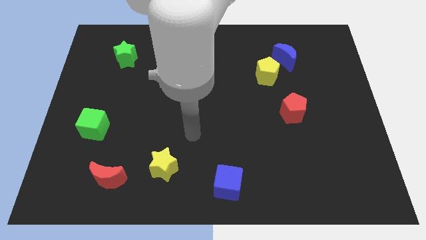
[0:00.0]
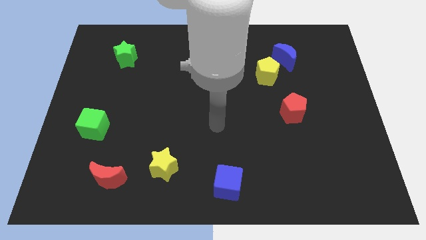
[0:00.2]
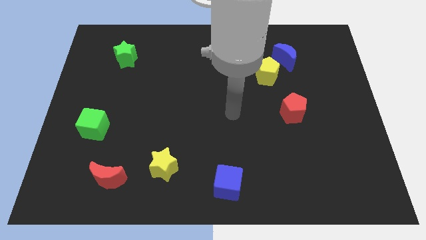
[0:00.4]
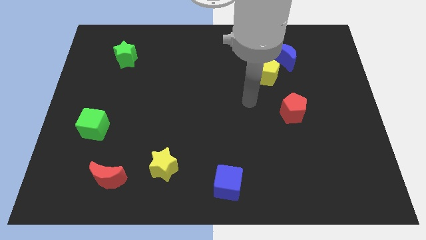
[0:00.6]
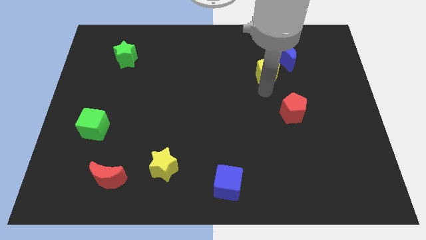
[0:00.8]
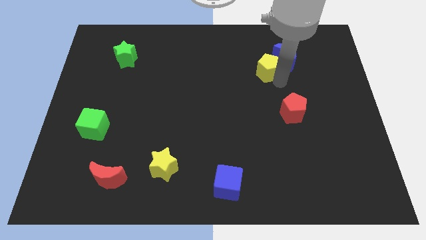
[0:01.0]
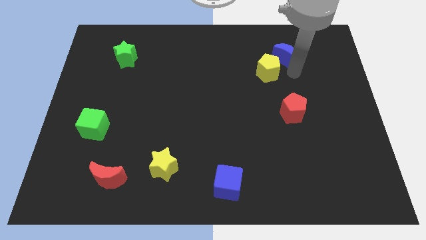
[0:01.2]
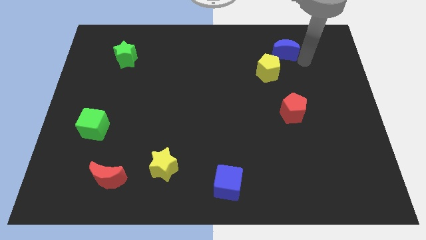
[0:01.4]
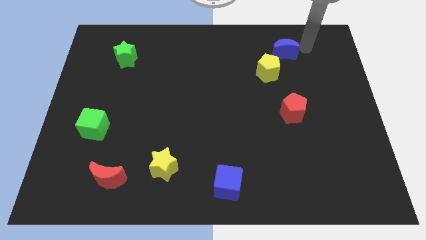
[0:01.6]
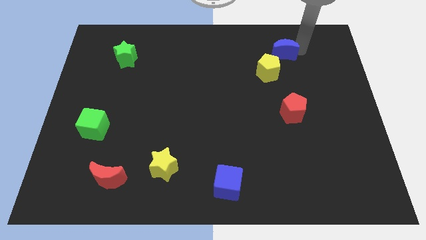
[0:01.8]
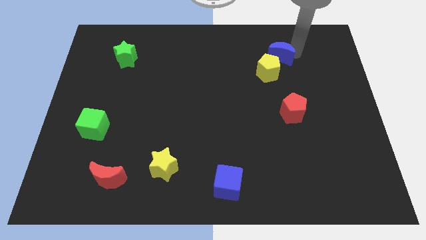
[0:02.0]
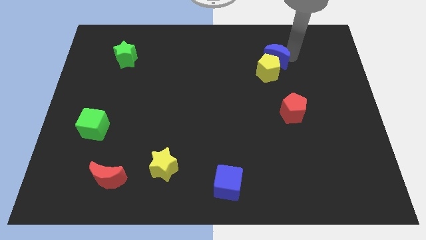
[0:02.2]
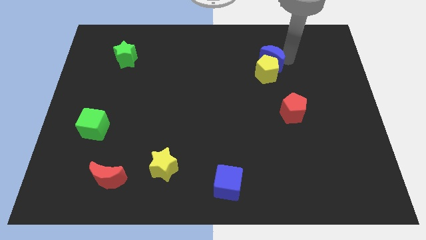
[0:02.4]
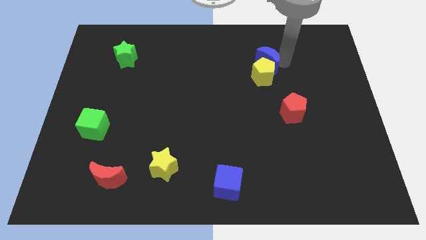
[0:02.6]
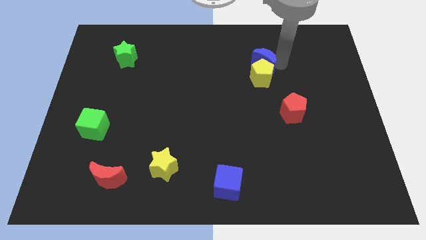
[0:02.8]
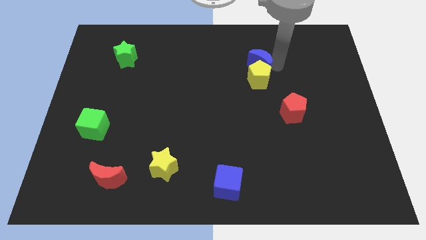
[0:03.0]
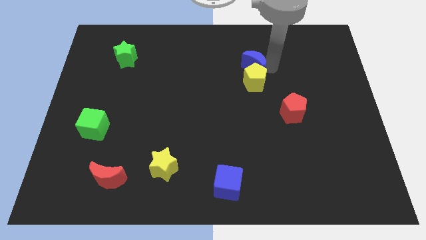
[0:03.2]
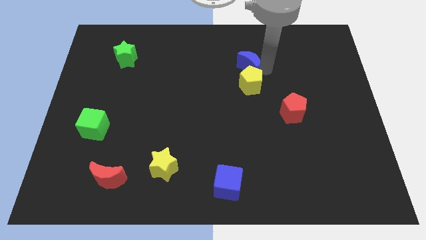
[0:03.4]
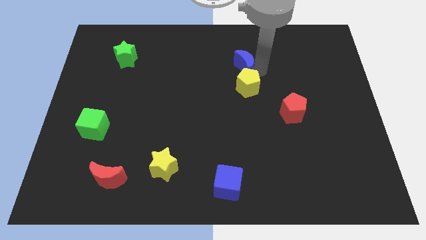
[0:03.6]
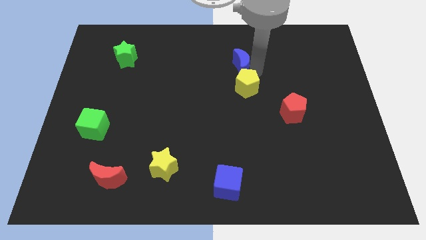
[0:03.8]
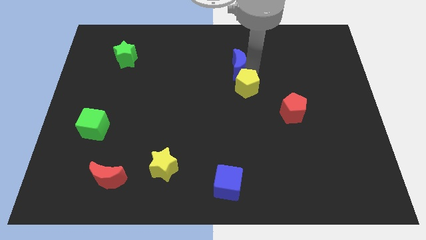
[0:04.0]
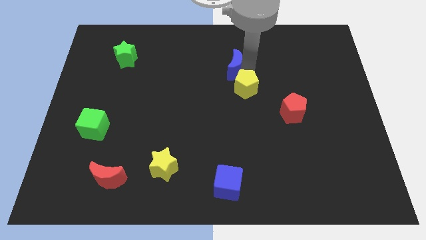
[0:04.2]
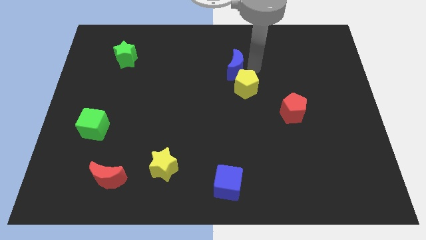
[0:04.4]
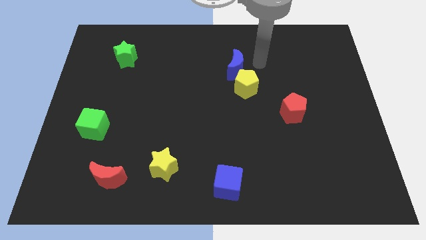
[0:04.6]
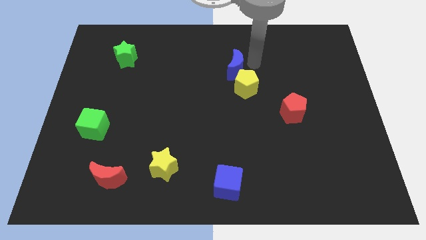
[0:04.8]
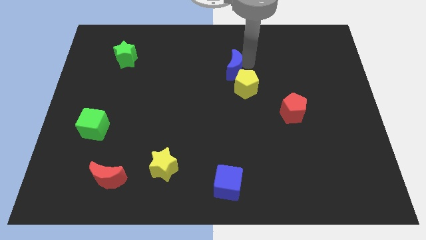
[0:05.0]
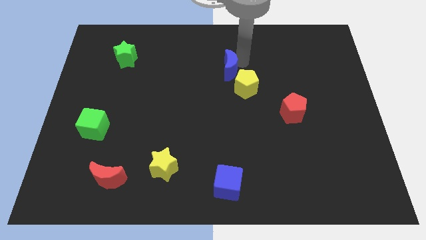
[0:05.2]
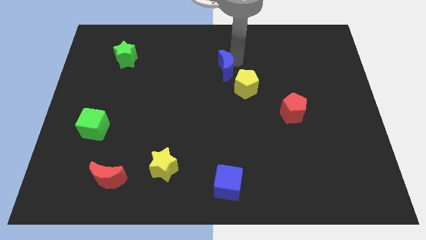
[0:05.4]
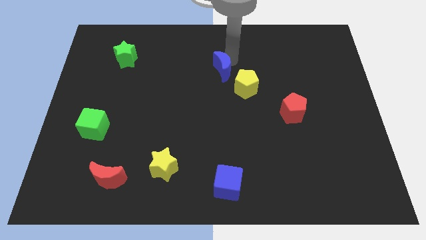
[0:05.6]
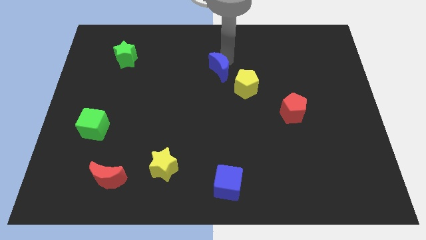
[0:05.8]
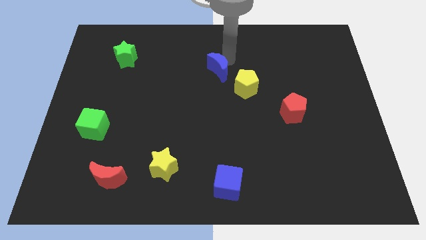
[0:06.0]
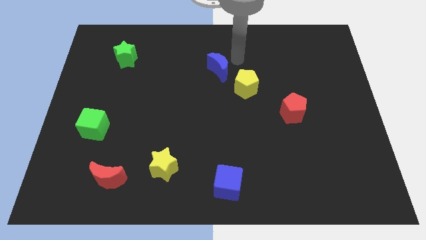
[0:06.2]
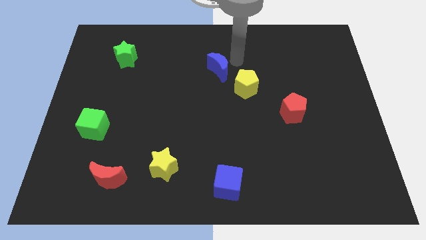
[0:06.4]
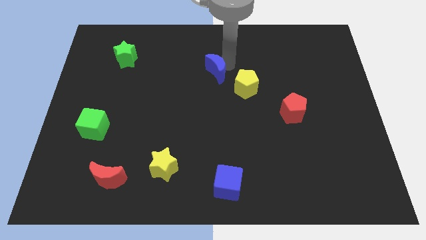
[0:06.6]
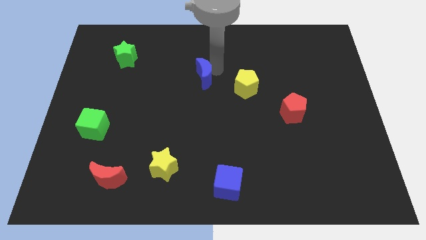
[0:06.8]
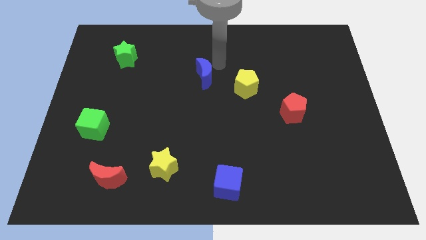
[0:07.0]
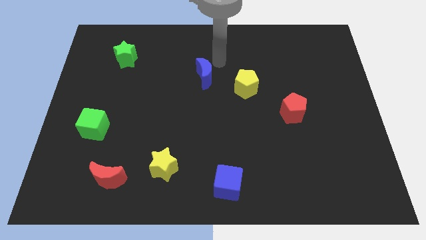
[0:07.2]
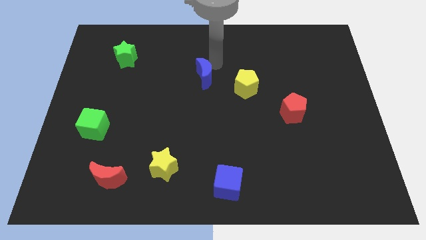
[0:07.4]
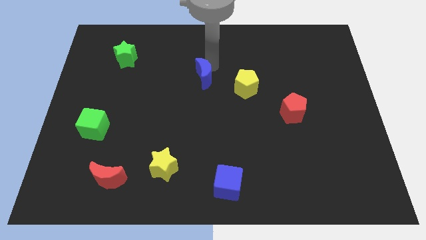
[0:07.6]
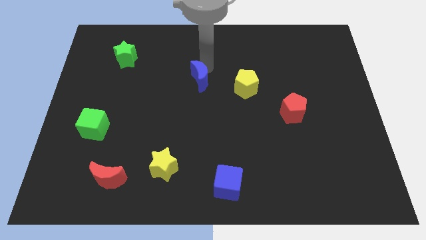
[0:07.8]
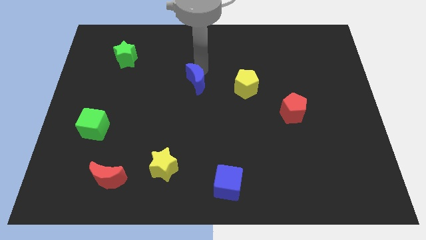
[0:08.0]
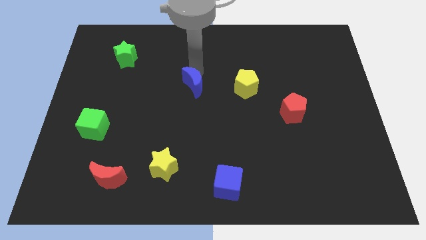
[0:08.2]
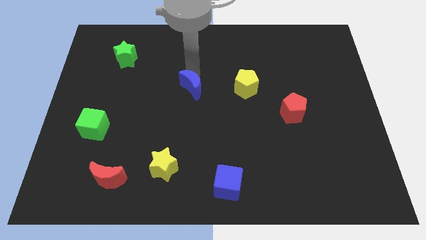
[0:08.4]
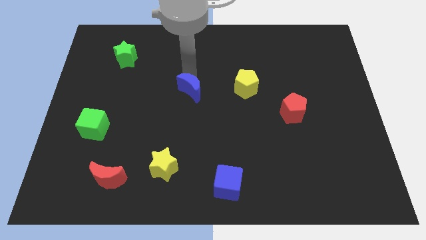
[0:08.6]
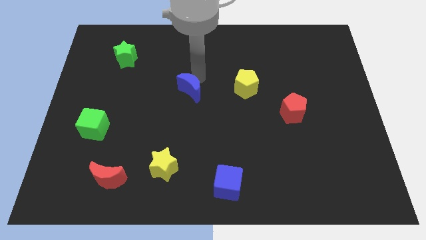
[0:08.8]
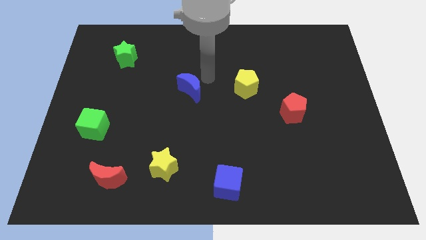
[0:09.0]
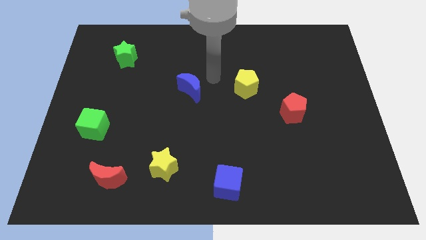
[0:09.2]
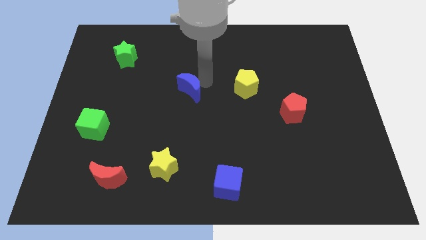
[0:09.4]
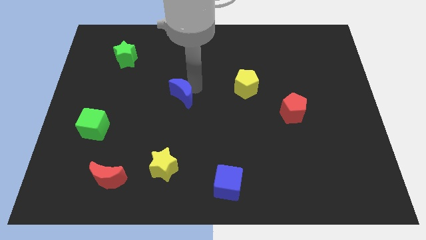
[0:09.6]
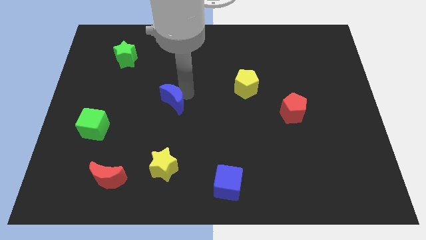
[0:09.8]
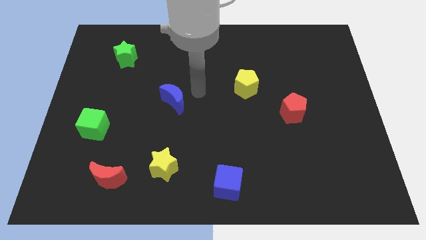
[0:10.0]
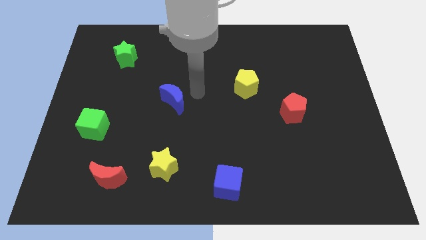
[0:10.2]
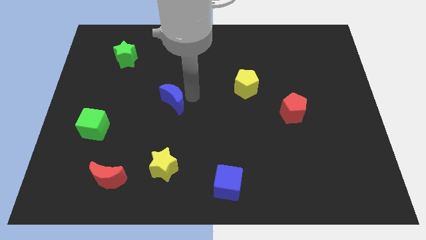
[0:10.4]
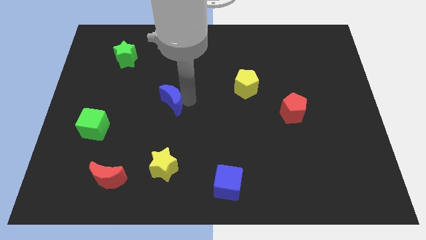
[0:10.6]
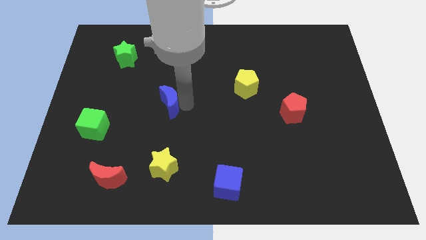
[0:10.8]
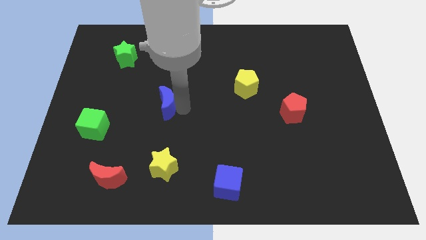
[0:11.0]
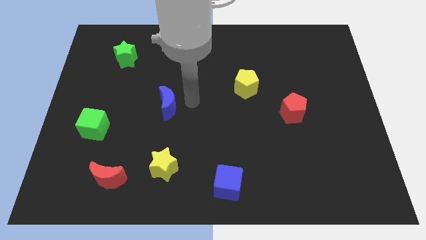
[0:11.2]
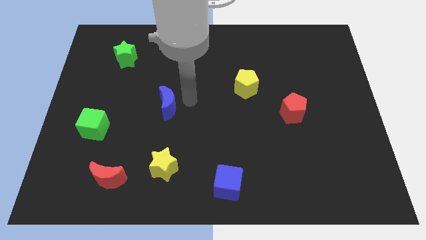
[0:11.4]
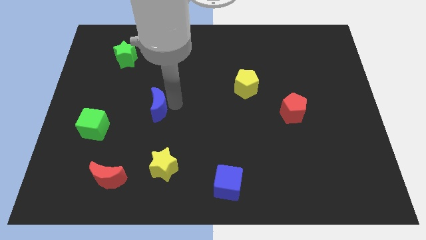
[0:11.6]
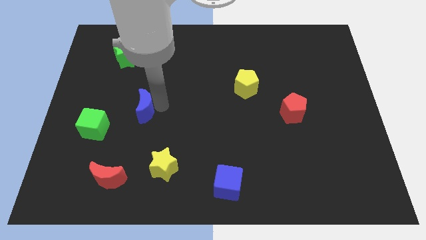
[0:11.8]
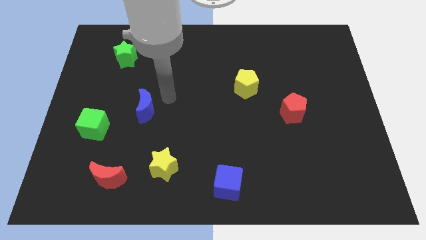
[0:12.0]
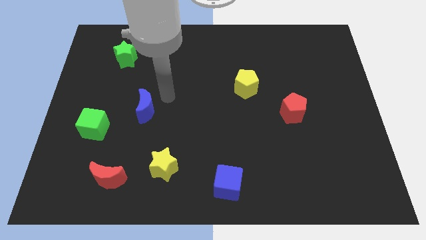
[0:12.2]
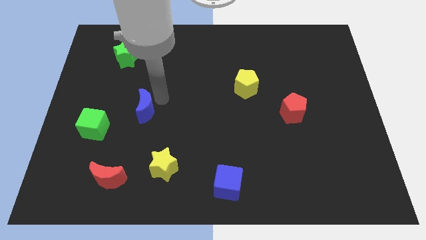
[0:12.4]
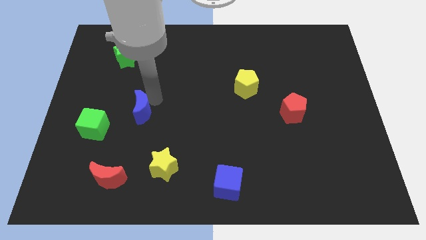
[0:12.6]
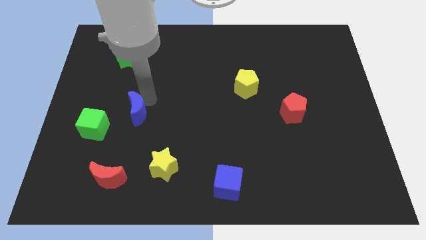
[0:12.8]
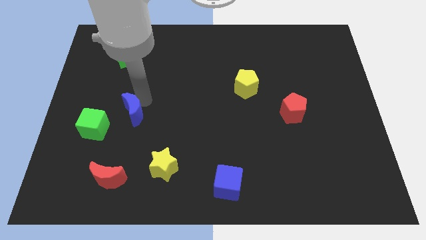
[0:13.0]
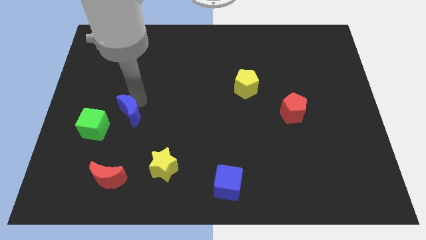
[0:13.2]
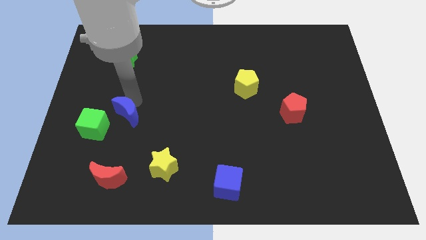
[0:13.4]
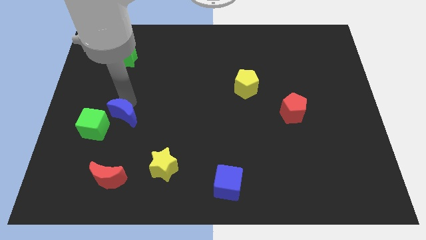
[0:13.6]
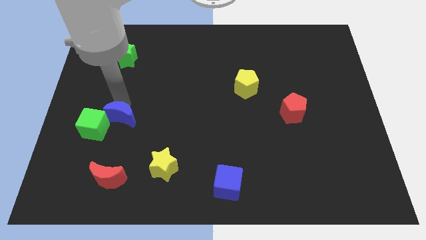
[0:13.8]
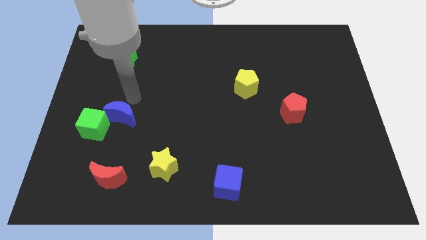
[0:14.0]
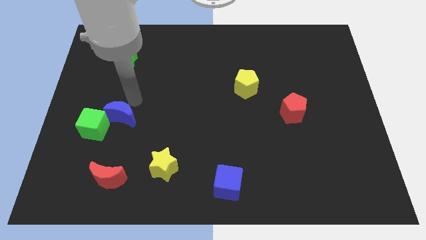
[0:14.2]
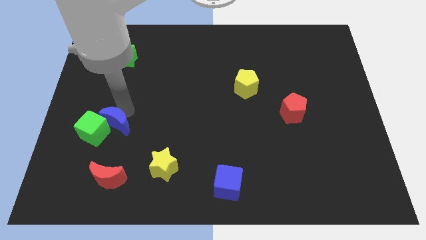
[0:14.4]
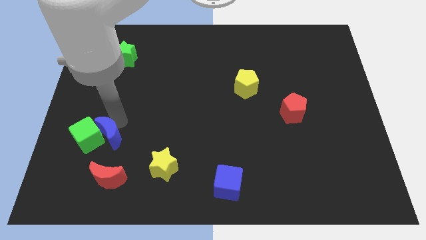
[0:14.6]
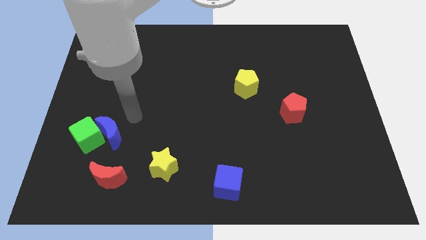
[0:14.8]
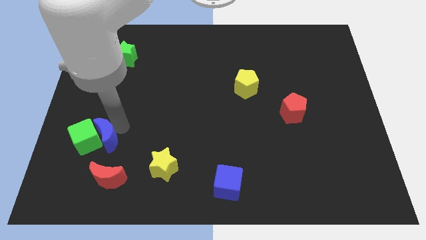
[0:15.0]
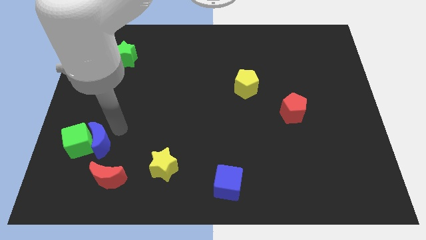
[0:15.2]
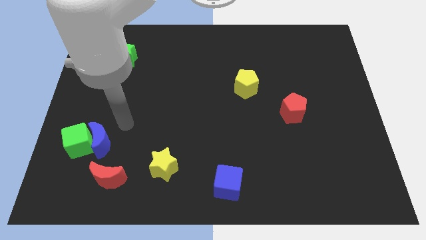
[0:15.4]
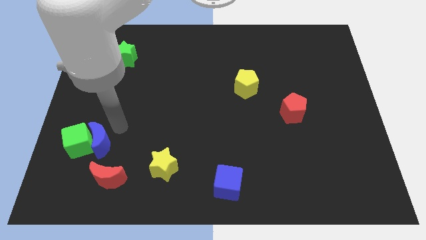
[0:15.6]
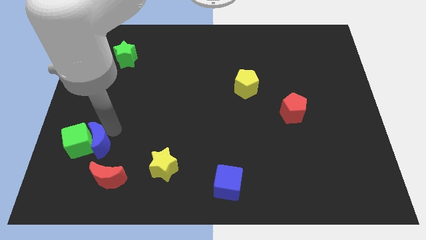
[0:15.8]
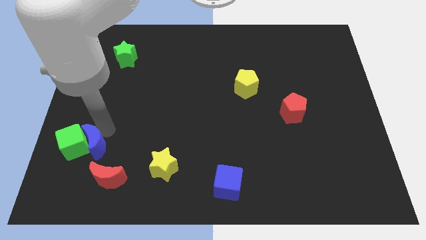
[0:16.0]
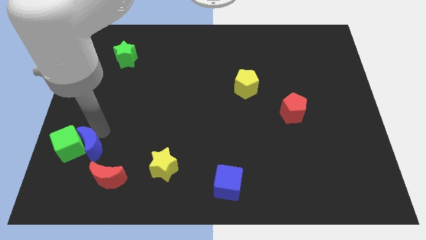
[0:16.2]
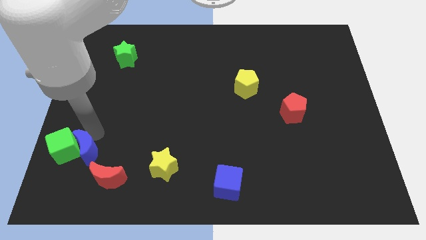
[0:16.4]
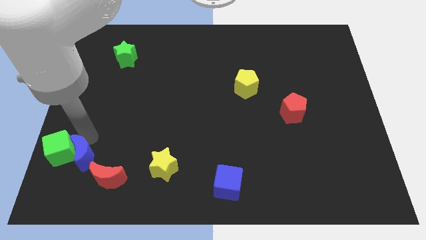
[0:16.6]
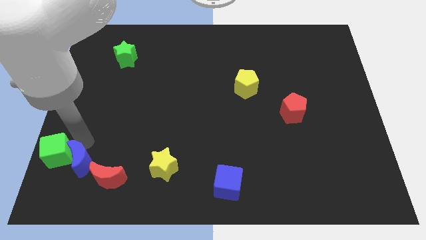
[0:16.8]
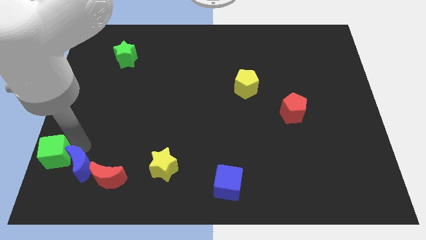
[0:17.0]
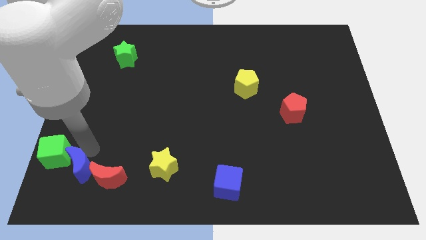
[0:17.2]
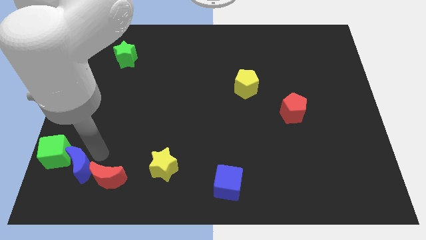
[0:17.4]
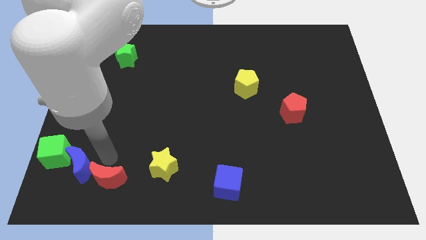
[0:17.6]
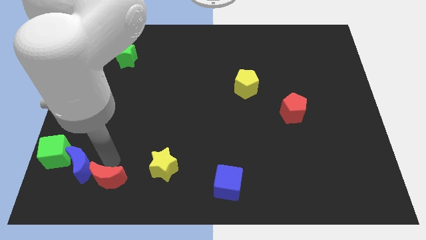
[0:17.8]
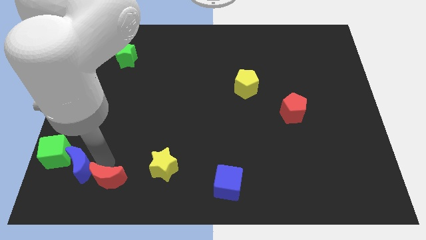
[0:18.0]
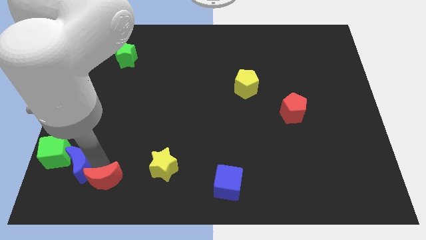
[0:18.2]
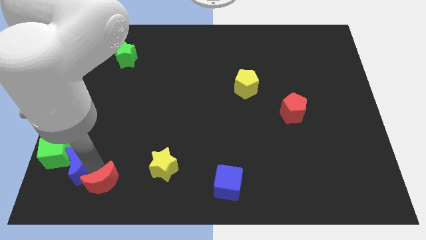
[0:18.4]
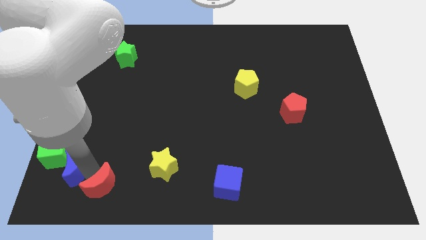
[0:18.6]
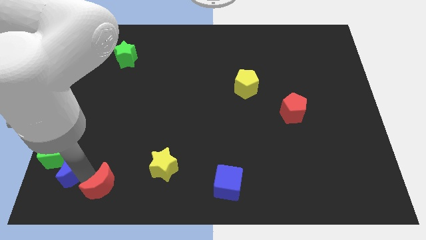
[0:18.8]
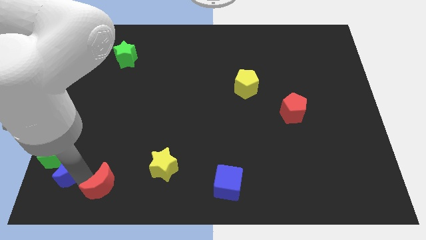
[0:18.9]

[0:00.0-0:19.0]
push the blue moon to the lower left corner
